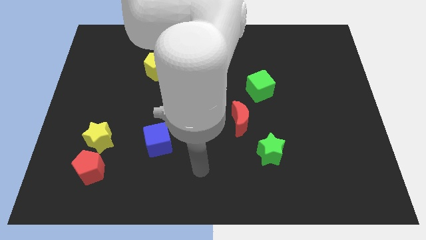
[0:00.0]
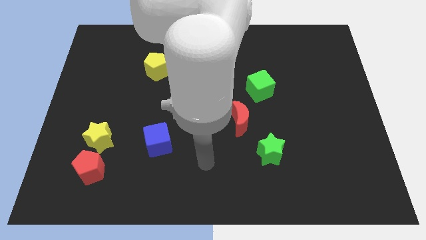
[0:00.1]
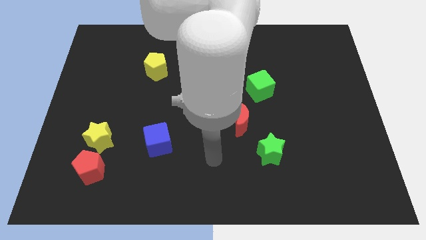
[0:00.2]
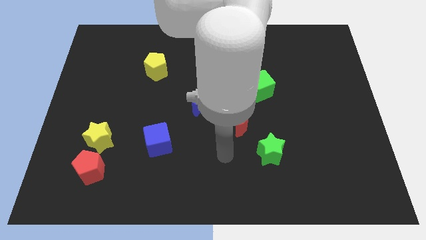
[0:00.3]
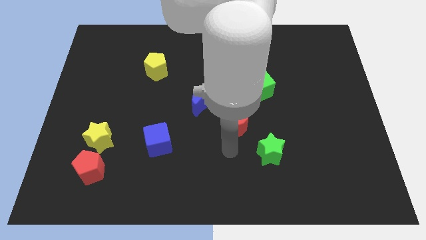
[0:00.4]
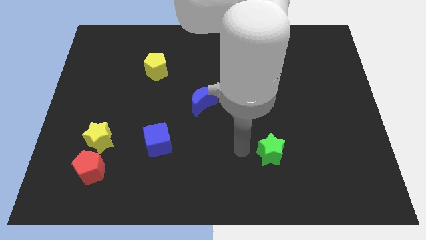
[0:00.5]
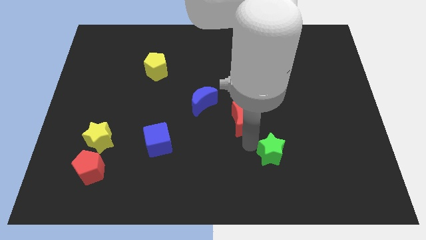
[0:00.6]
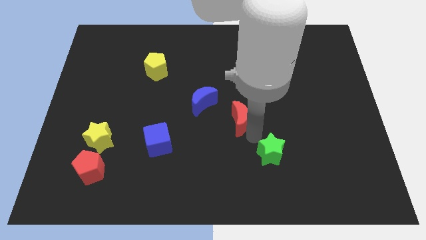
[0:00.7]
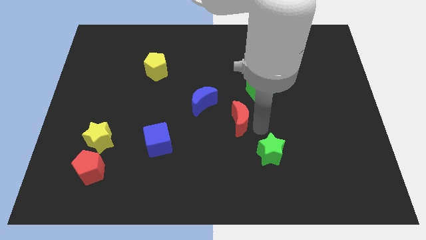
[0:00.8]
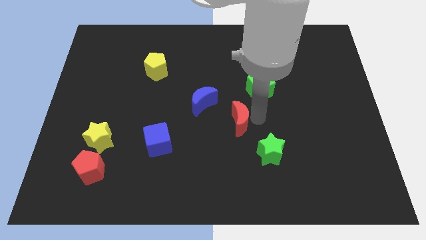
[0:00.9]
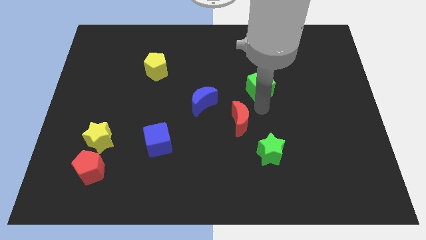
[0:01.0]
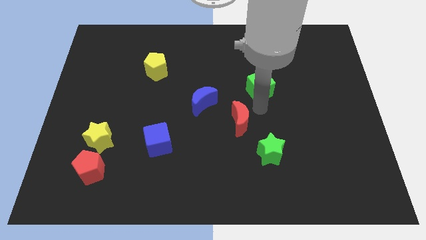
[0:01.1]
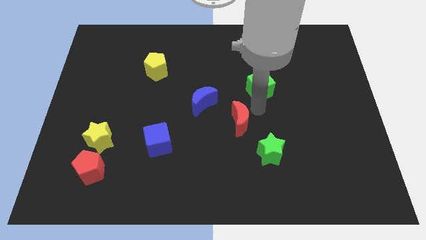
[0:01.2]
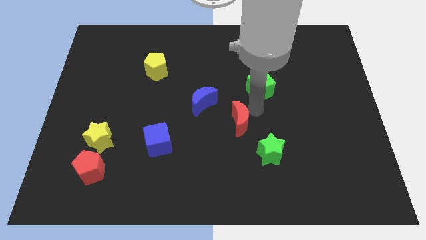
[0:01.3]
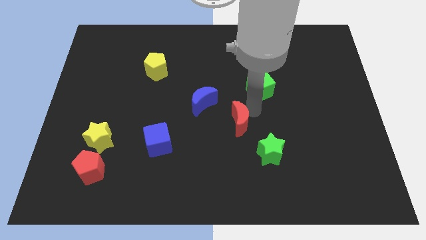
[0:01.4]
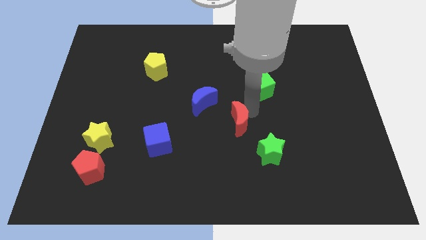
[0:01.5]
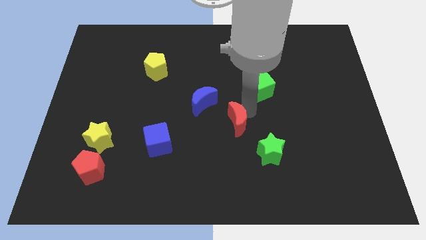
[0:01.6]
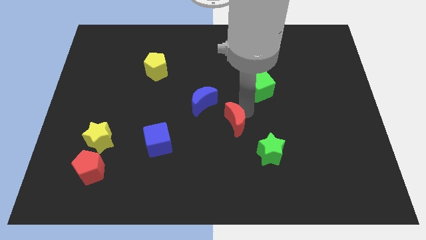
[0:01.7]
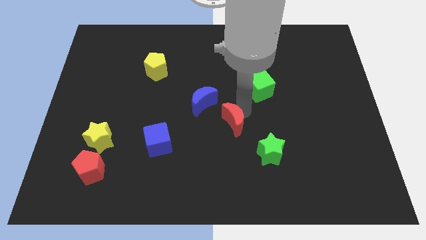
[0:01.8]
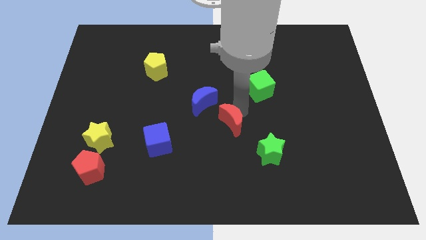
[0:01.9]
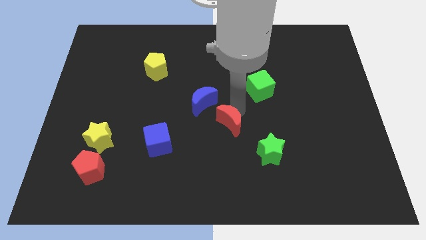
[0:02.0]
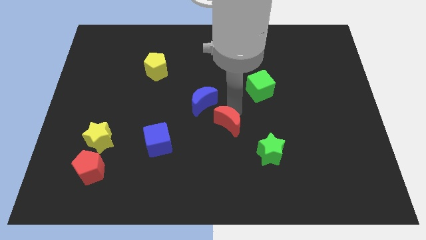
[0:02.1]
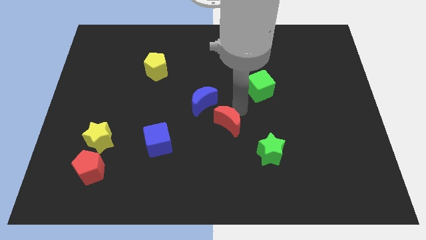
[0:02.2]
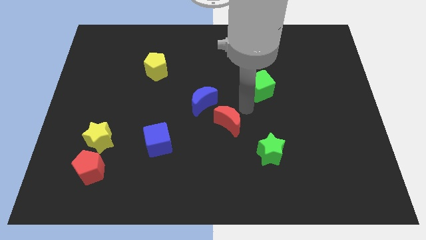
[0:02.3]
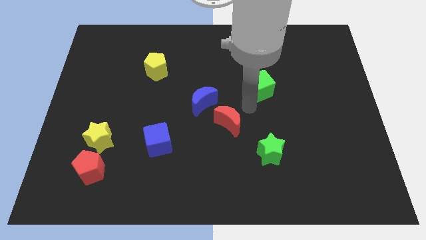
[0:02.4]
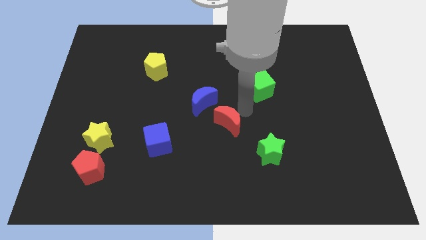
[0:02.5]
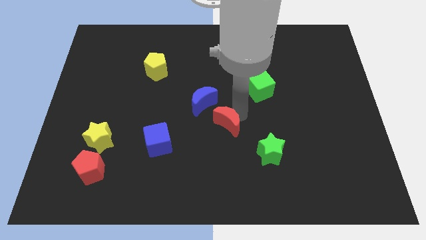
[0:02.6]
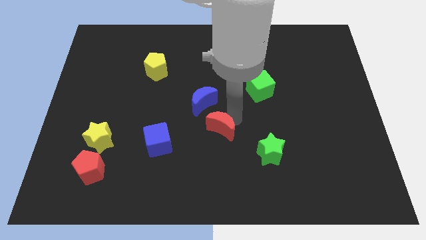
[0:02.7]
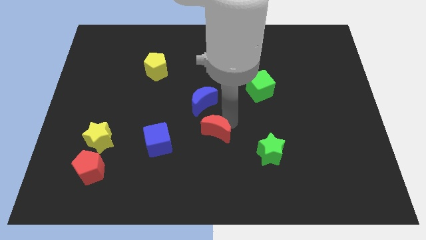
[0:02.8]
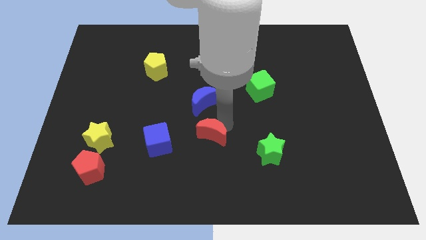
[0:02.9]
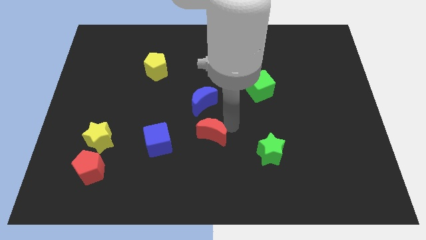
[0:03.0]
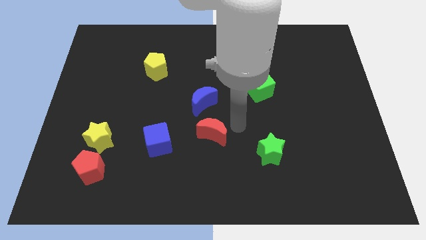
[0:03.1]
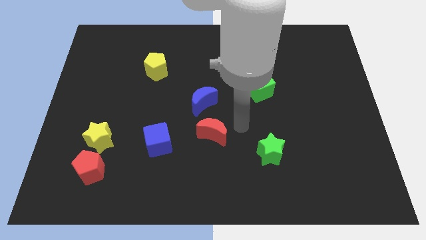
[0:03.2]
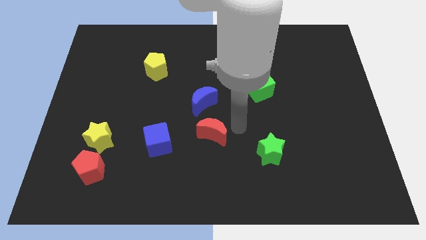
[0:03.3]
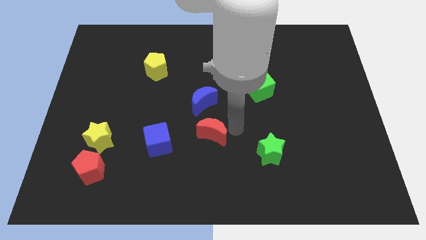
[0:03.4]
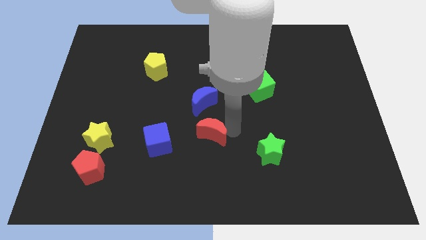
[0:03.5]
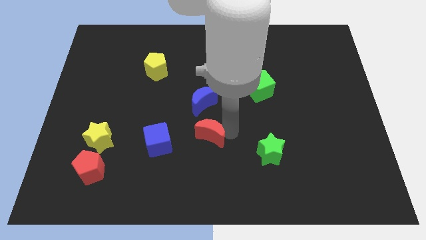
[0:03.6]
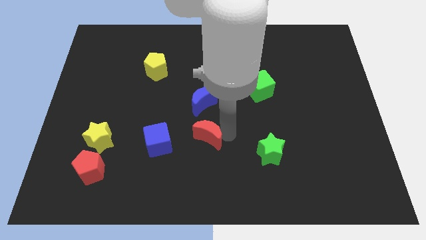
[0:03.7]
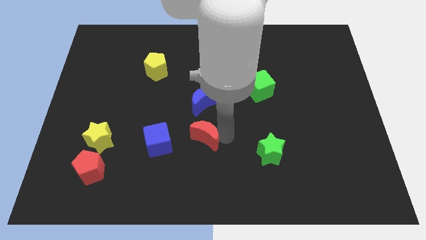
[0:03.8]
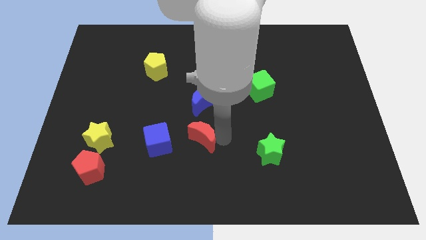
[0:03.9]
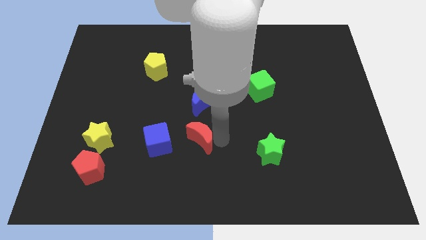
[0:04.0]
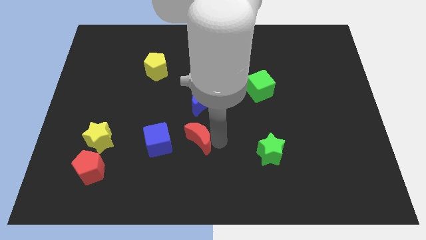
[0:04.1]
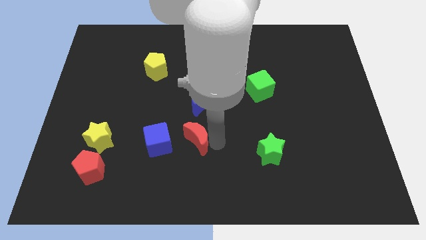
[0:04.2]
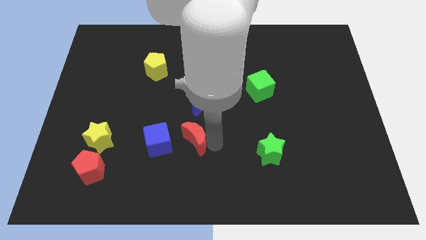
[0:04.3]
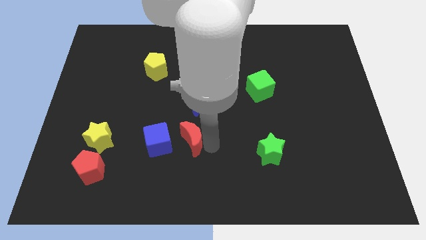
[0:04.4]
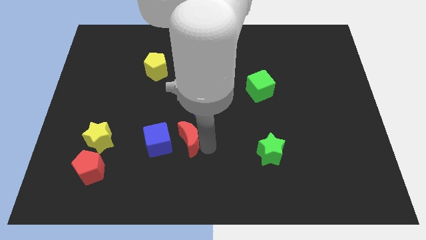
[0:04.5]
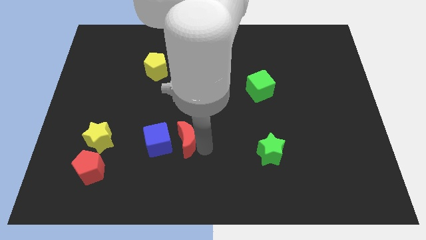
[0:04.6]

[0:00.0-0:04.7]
move the red moon to the blue cube

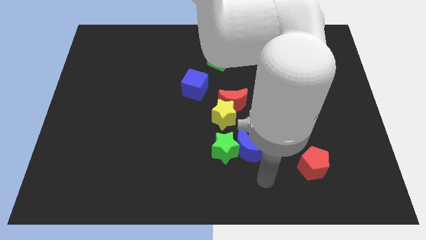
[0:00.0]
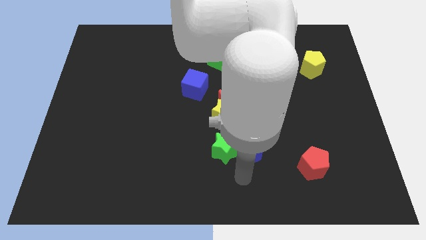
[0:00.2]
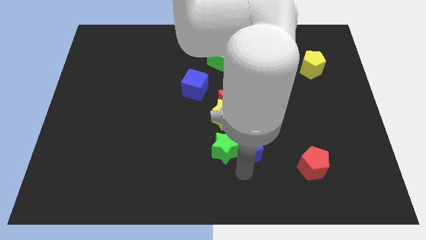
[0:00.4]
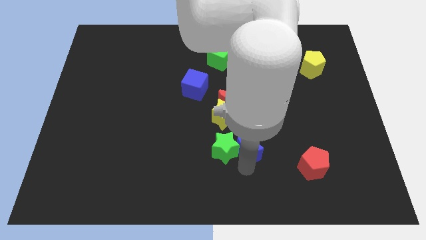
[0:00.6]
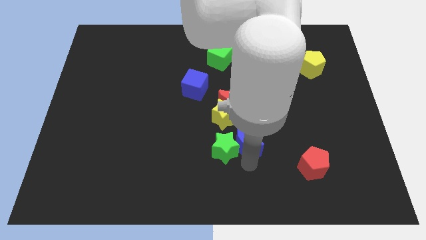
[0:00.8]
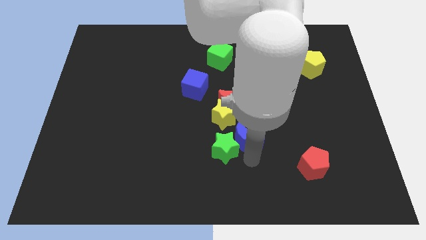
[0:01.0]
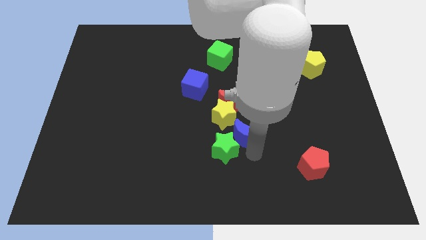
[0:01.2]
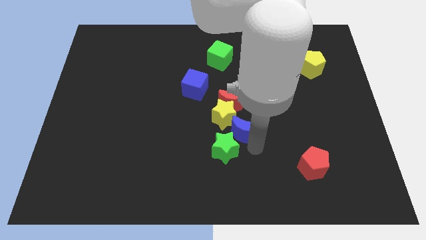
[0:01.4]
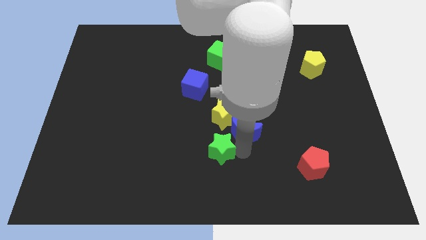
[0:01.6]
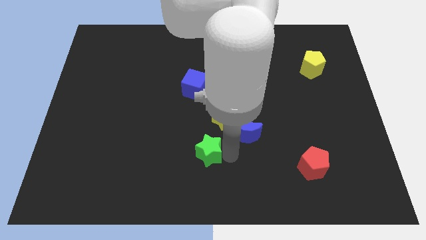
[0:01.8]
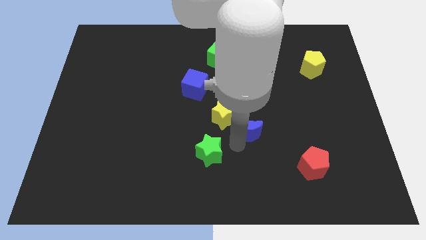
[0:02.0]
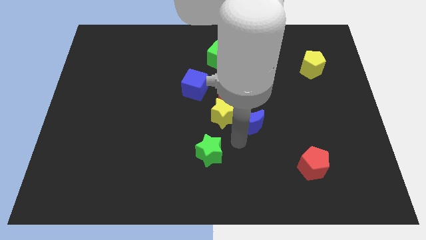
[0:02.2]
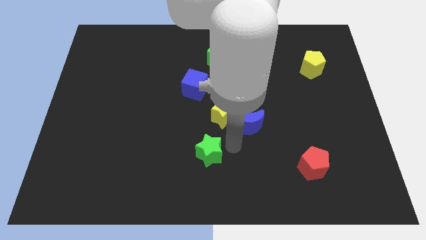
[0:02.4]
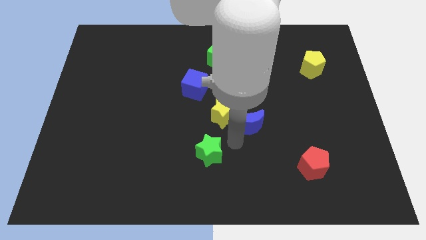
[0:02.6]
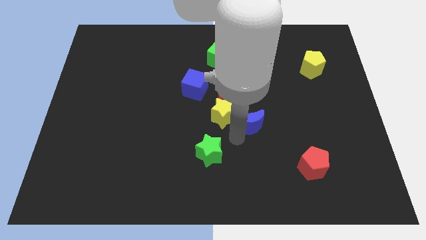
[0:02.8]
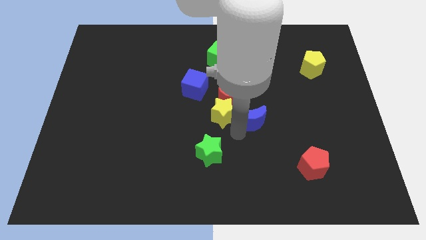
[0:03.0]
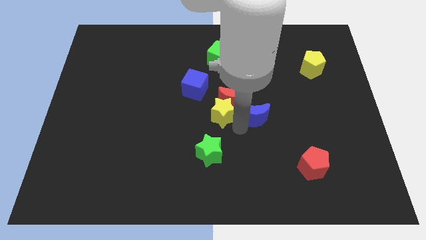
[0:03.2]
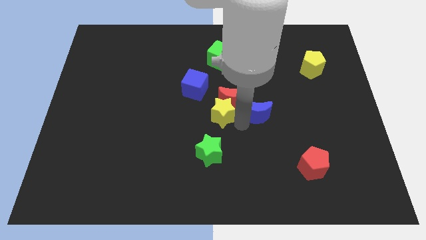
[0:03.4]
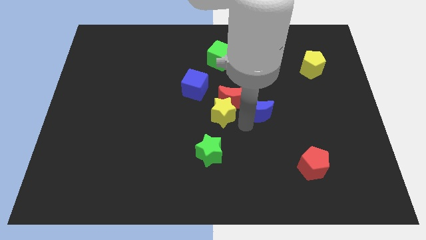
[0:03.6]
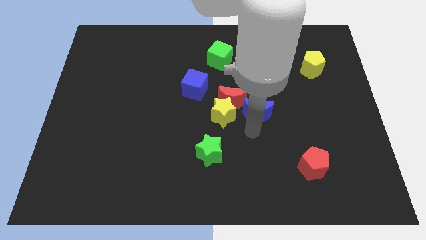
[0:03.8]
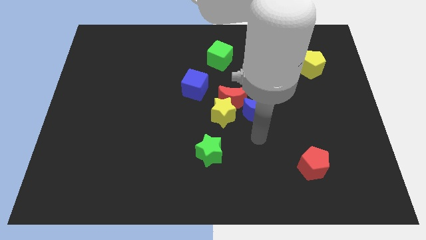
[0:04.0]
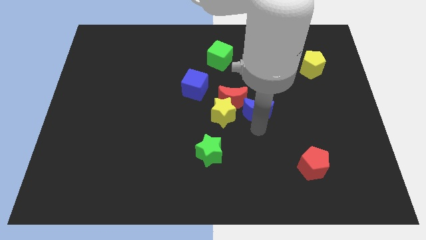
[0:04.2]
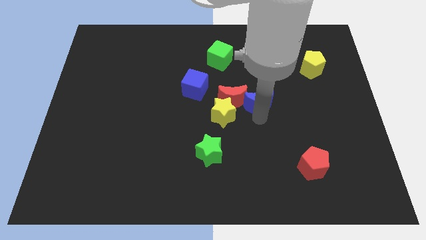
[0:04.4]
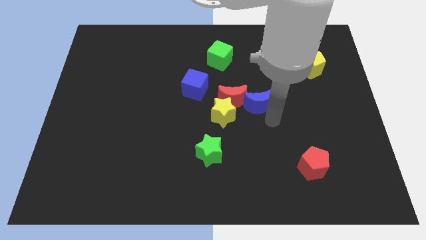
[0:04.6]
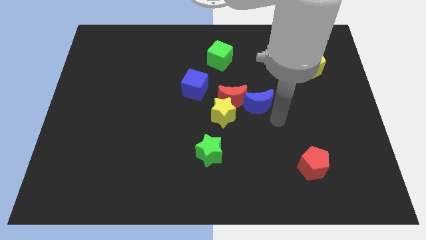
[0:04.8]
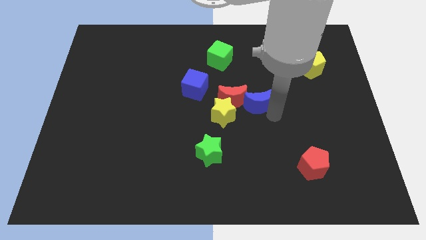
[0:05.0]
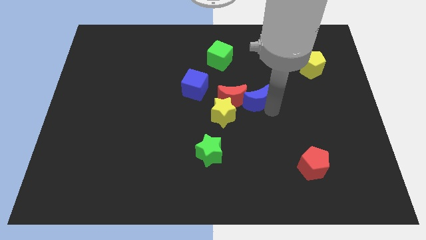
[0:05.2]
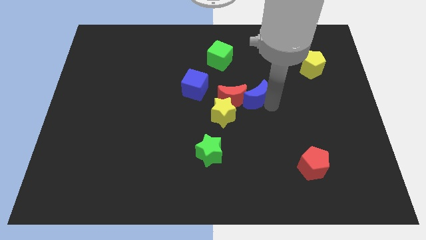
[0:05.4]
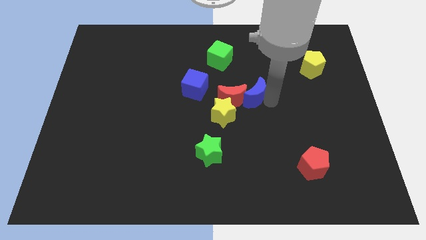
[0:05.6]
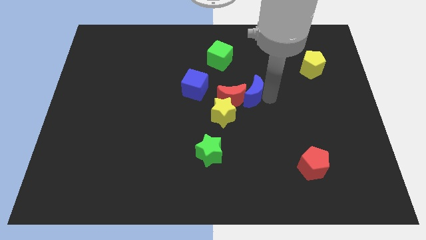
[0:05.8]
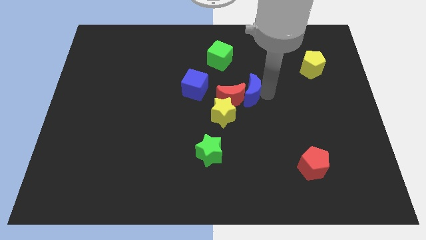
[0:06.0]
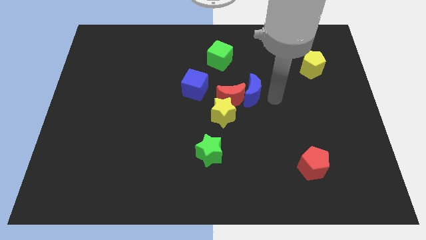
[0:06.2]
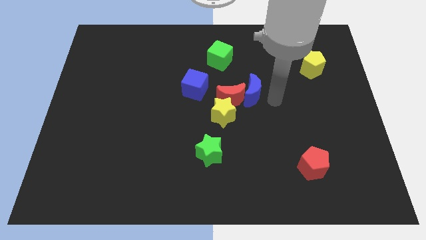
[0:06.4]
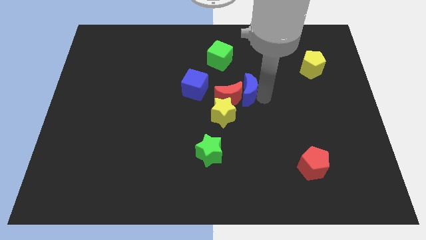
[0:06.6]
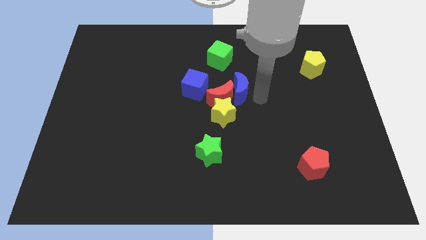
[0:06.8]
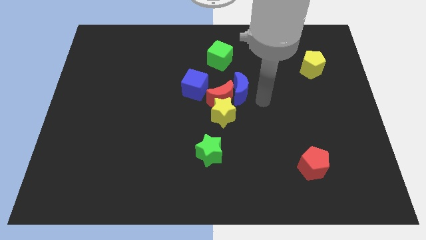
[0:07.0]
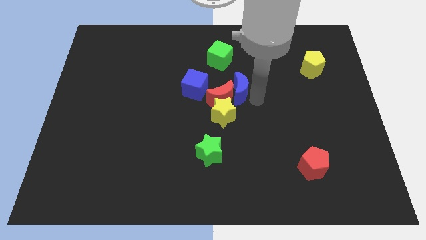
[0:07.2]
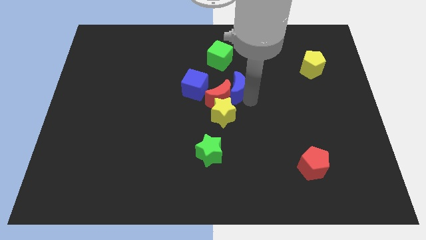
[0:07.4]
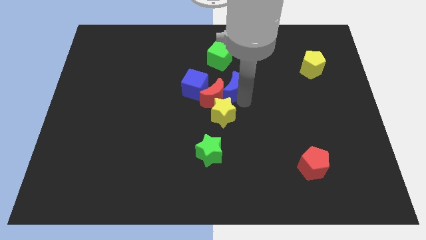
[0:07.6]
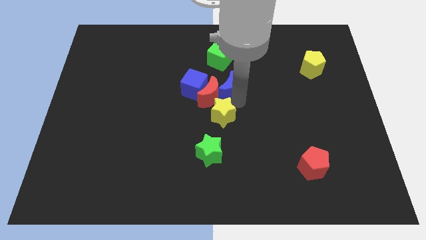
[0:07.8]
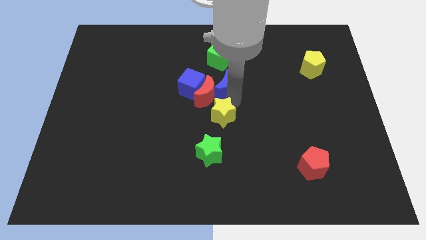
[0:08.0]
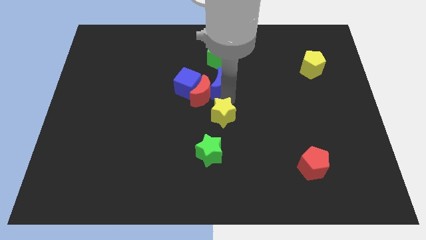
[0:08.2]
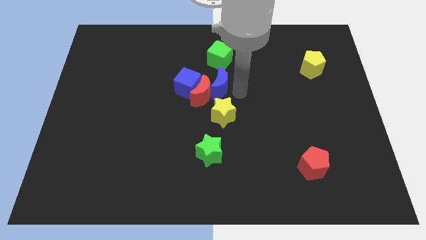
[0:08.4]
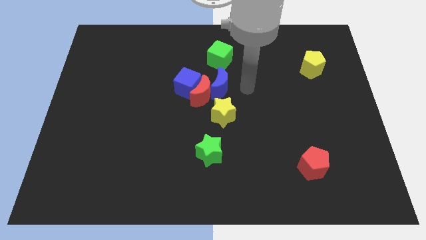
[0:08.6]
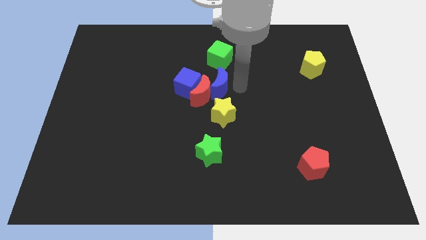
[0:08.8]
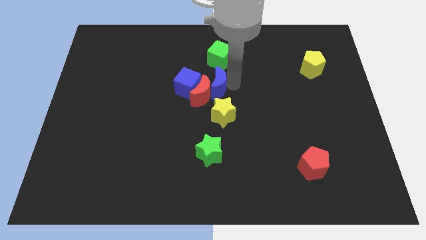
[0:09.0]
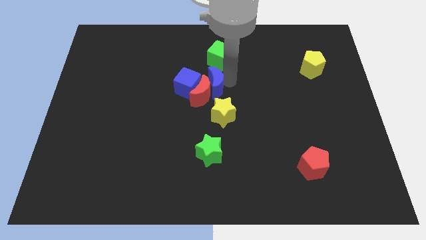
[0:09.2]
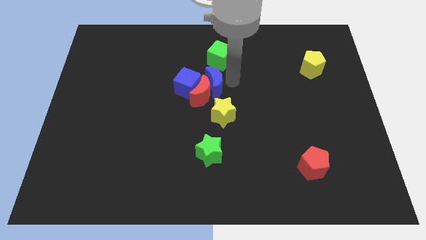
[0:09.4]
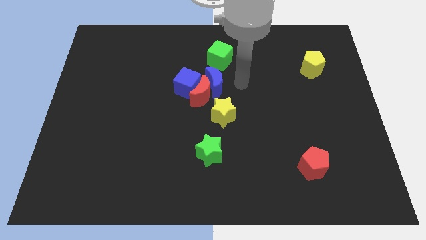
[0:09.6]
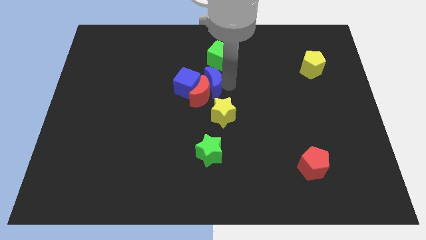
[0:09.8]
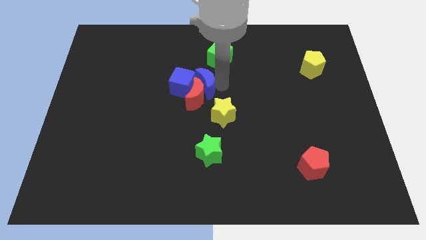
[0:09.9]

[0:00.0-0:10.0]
push the blue moon to the blue cube
